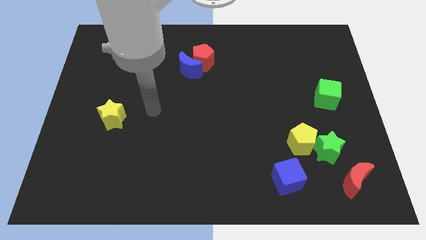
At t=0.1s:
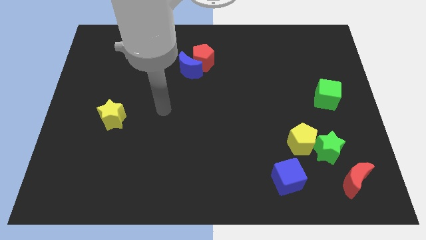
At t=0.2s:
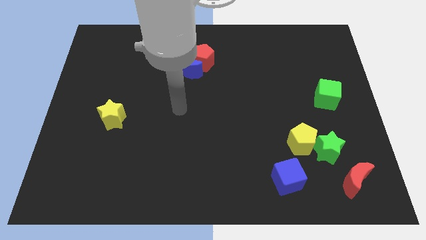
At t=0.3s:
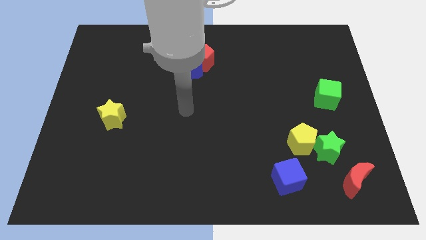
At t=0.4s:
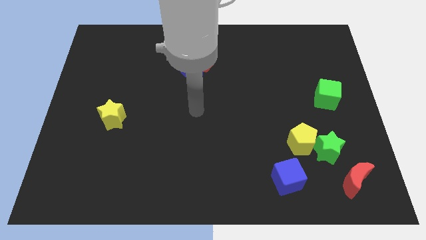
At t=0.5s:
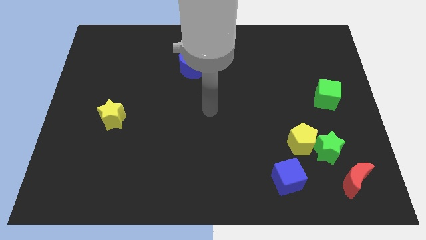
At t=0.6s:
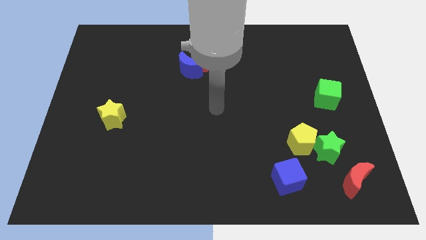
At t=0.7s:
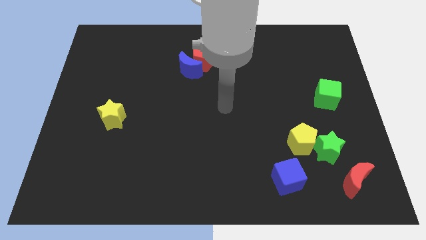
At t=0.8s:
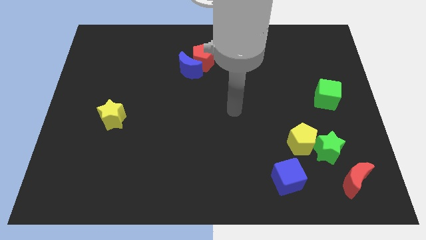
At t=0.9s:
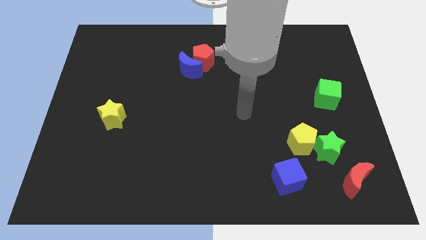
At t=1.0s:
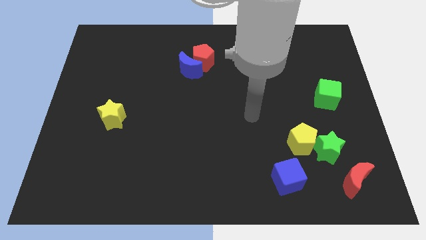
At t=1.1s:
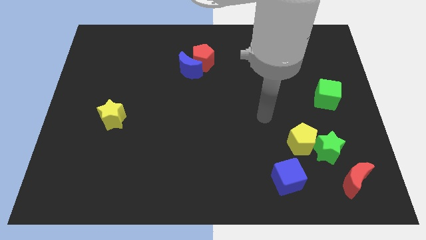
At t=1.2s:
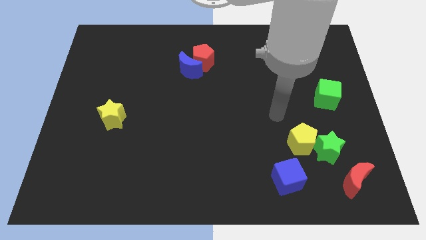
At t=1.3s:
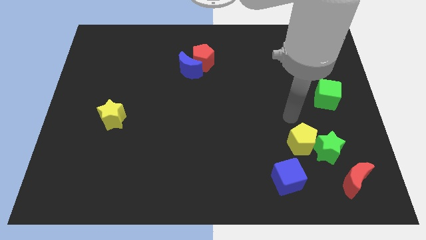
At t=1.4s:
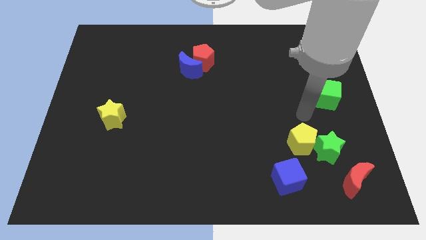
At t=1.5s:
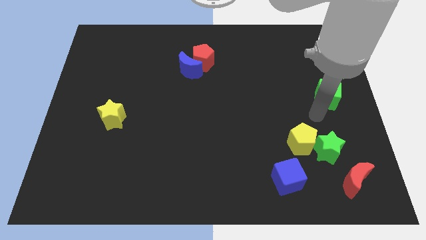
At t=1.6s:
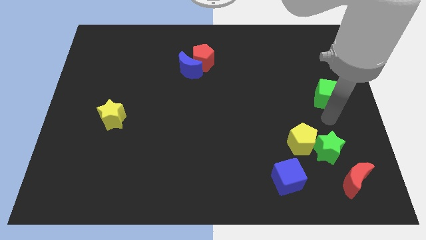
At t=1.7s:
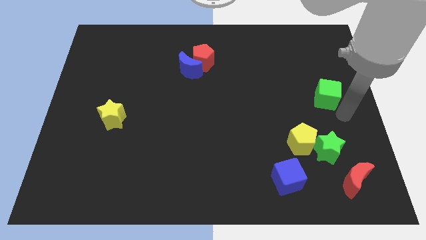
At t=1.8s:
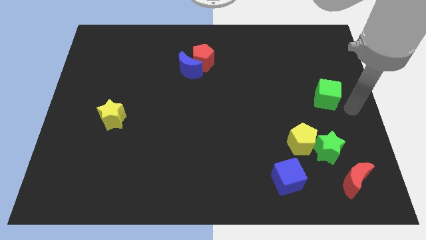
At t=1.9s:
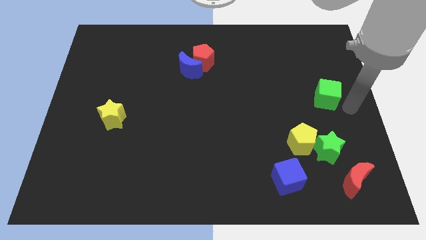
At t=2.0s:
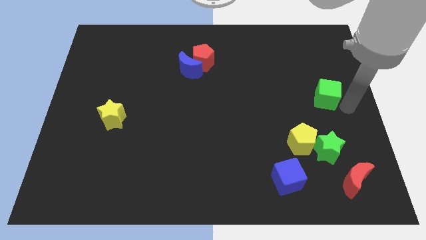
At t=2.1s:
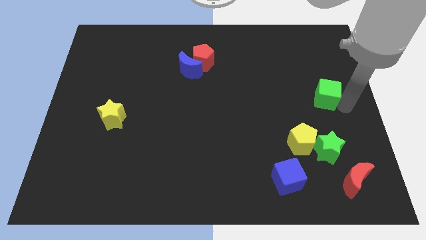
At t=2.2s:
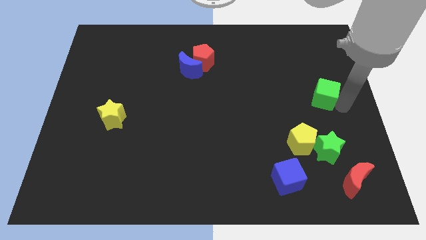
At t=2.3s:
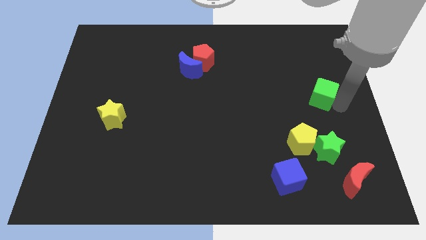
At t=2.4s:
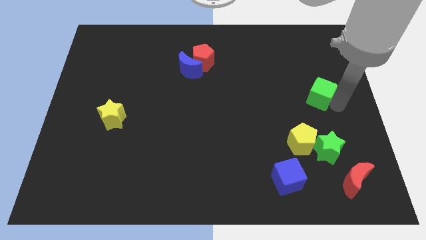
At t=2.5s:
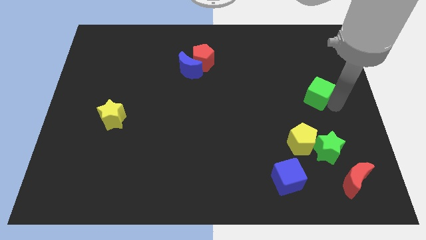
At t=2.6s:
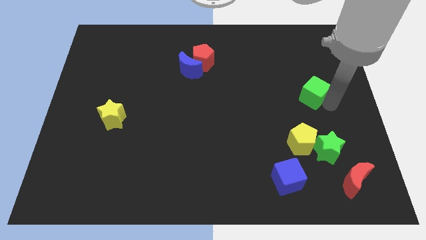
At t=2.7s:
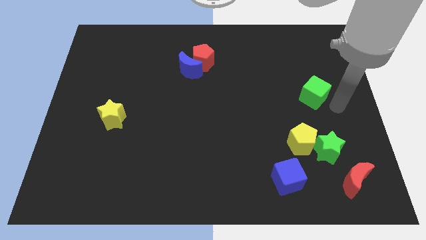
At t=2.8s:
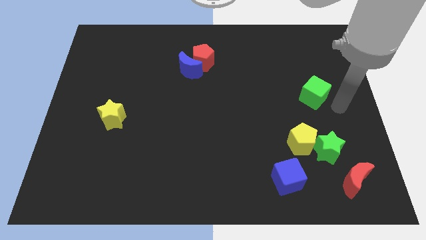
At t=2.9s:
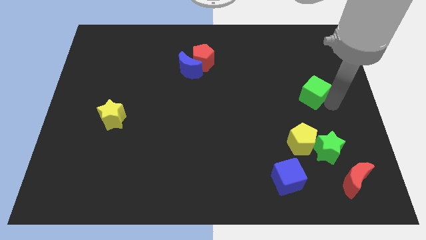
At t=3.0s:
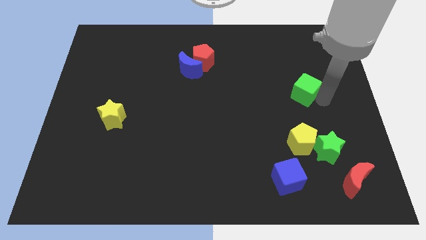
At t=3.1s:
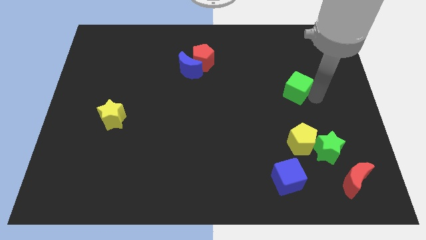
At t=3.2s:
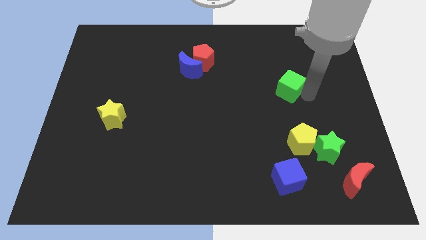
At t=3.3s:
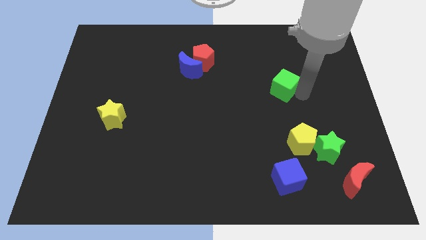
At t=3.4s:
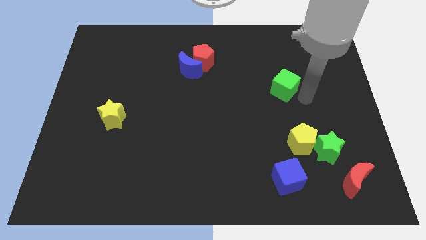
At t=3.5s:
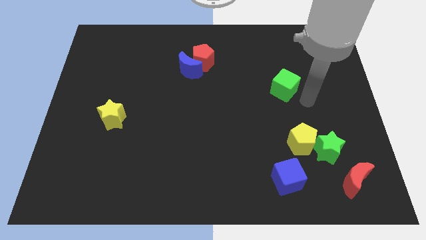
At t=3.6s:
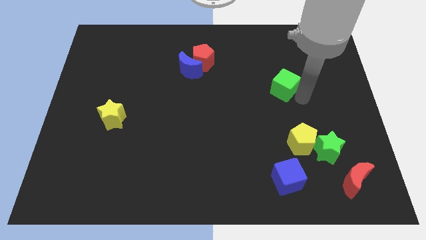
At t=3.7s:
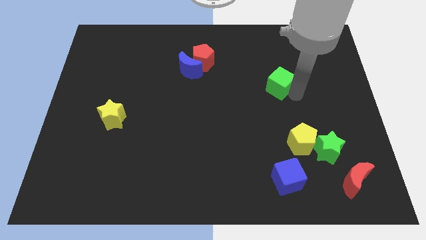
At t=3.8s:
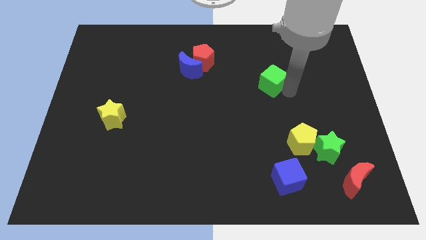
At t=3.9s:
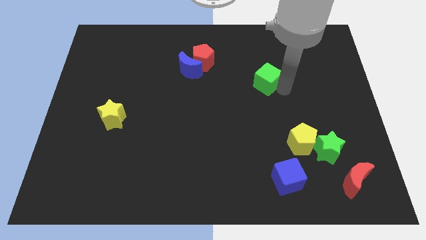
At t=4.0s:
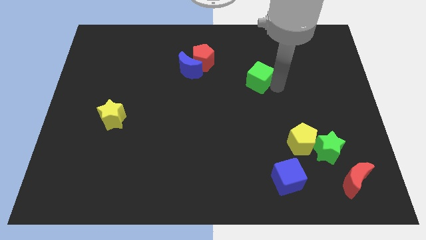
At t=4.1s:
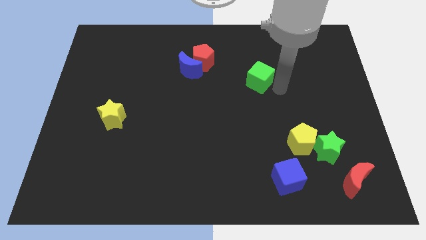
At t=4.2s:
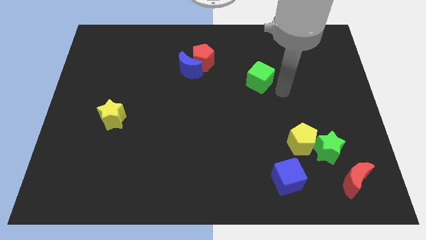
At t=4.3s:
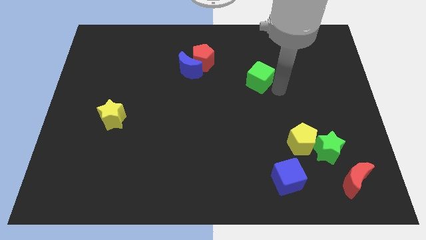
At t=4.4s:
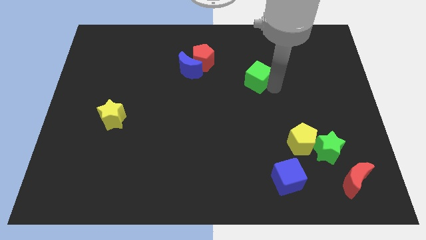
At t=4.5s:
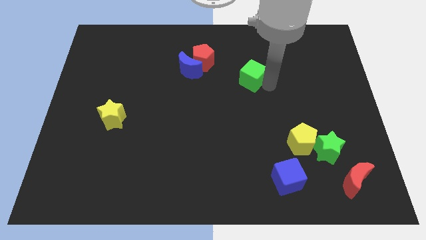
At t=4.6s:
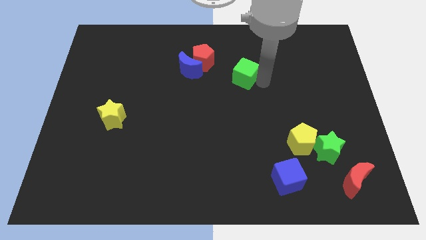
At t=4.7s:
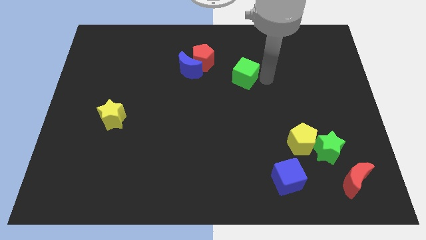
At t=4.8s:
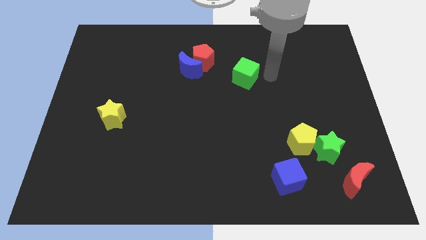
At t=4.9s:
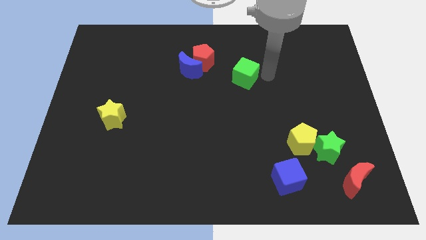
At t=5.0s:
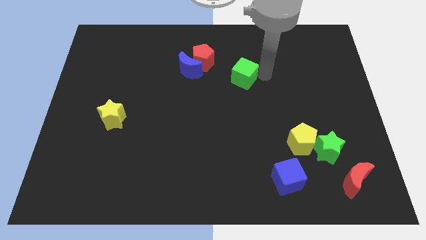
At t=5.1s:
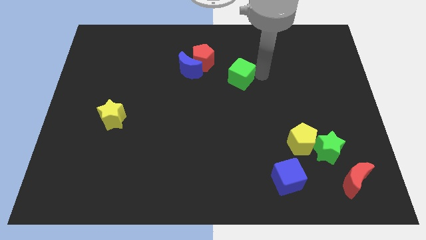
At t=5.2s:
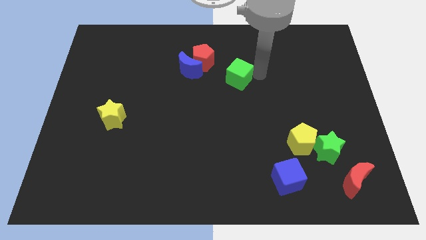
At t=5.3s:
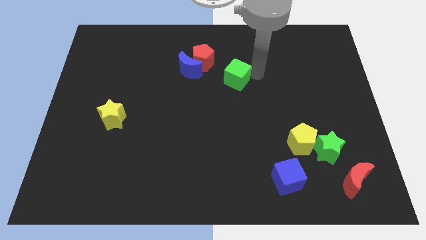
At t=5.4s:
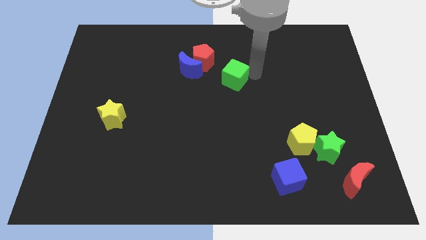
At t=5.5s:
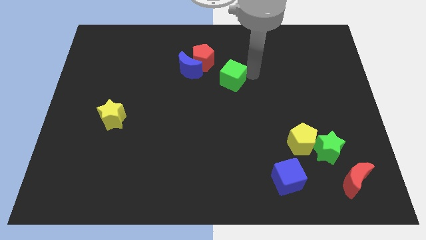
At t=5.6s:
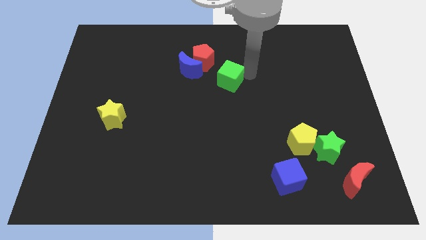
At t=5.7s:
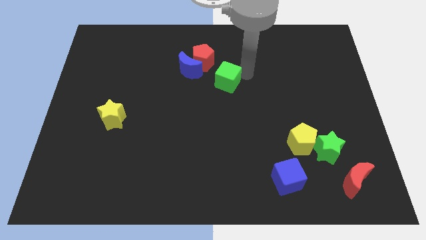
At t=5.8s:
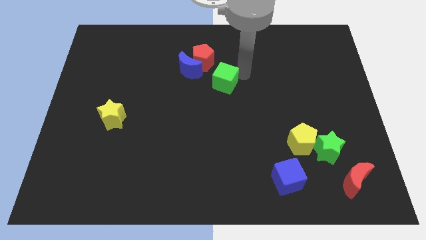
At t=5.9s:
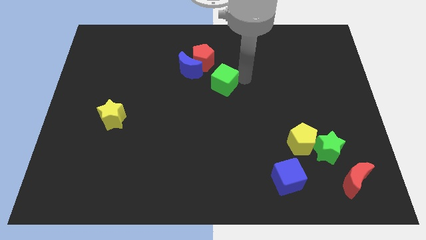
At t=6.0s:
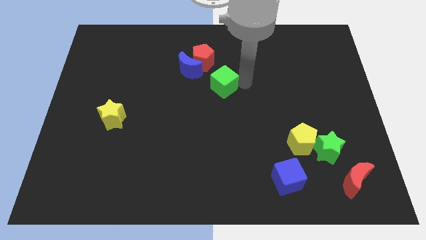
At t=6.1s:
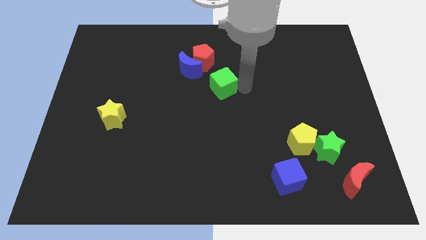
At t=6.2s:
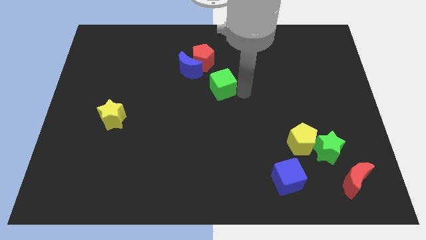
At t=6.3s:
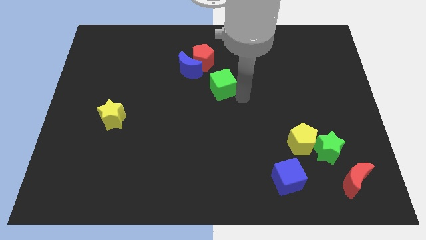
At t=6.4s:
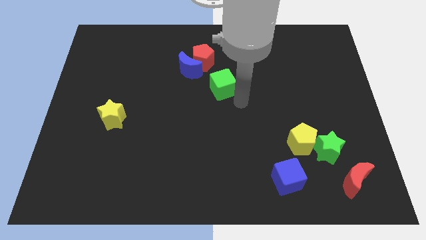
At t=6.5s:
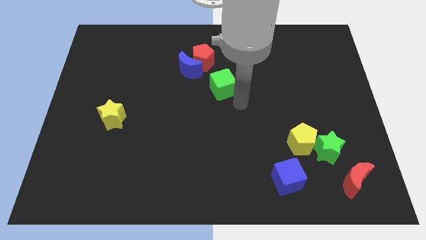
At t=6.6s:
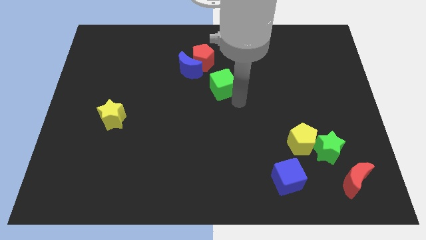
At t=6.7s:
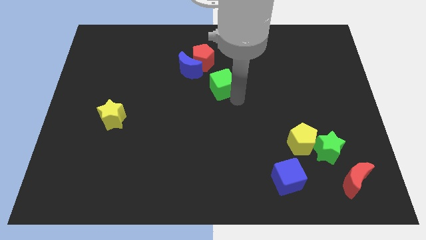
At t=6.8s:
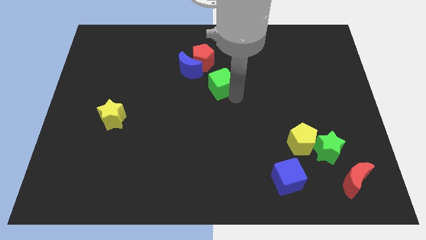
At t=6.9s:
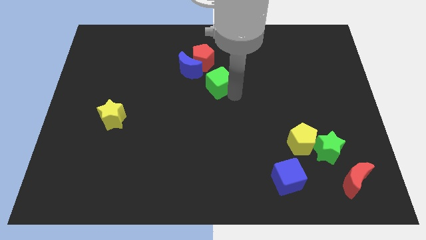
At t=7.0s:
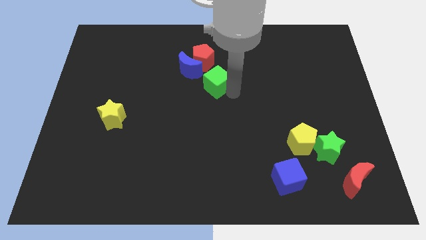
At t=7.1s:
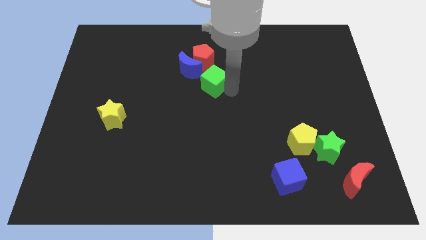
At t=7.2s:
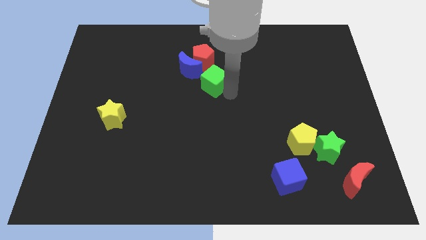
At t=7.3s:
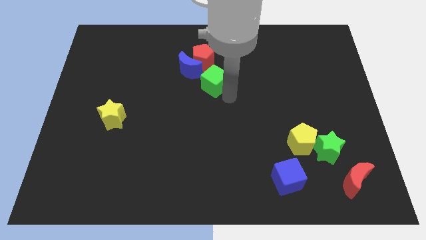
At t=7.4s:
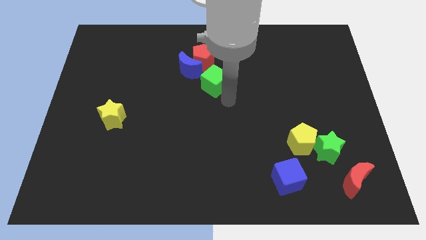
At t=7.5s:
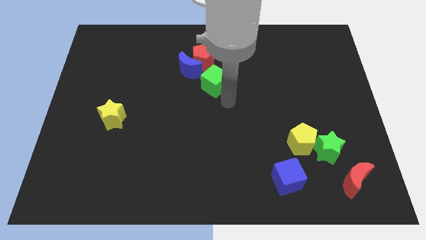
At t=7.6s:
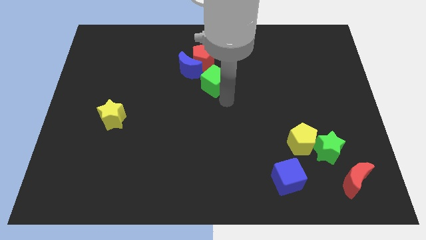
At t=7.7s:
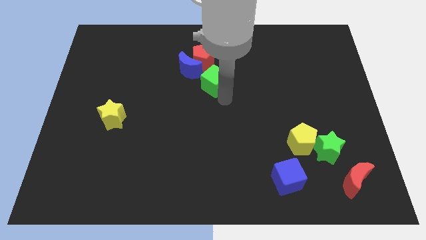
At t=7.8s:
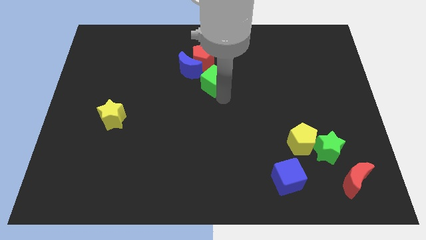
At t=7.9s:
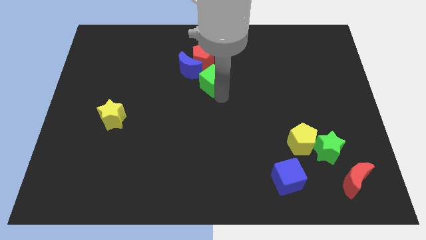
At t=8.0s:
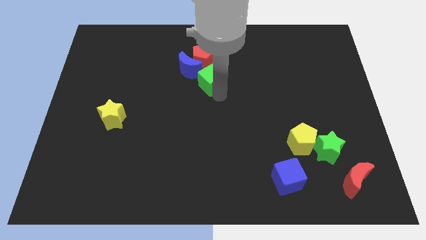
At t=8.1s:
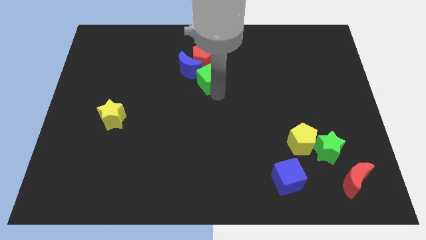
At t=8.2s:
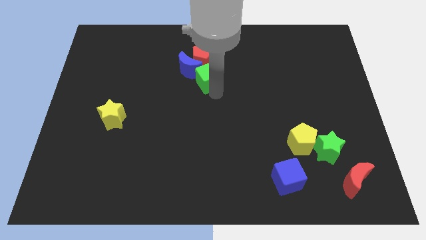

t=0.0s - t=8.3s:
move the green cube next to the blue moon
